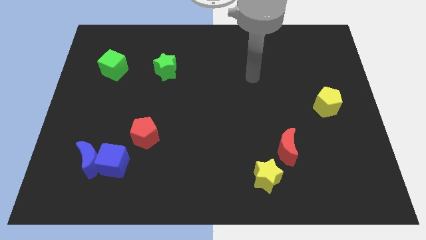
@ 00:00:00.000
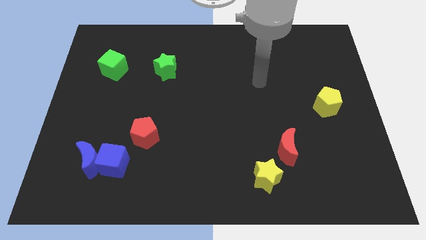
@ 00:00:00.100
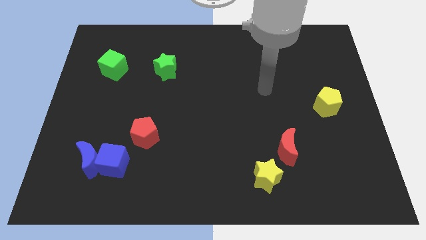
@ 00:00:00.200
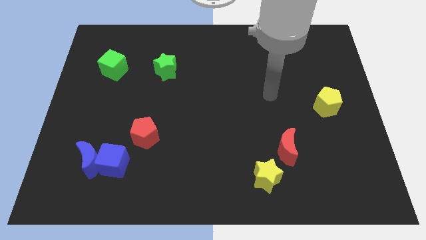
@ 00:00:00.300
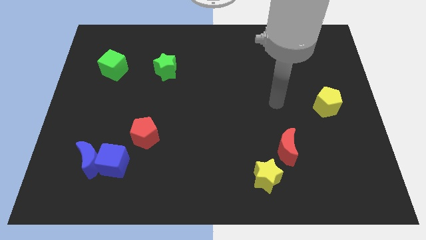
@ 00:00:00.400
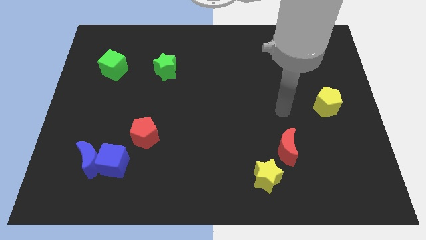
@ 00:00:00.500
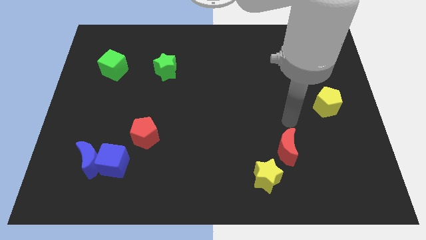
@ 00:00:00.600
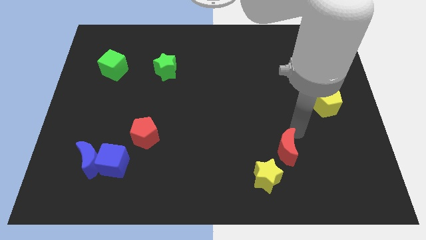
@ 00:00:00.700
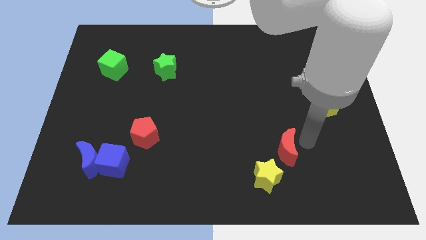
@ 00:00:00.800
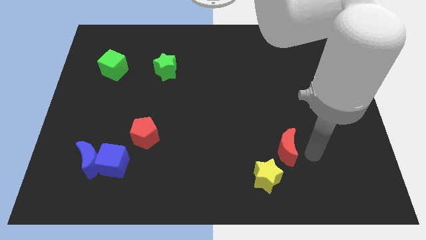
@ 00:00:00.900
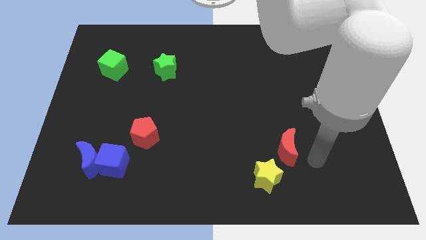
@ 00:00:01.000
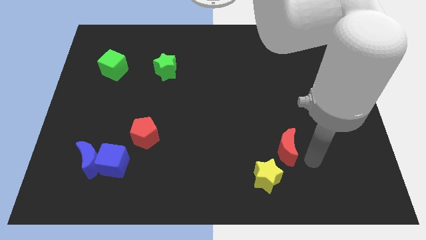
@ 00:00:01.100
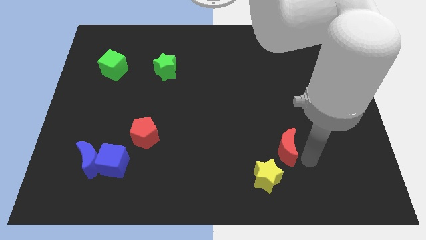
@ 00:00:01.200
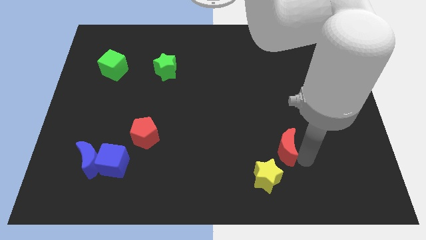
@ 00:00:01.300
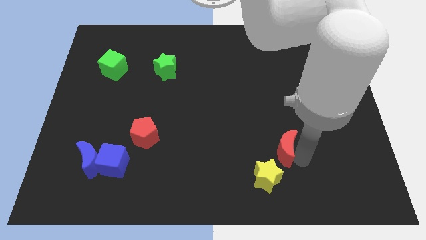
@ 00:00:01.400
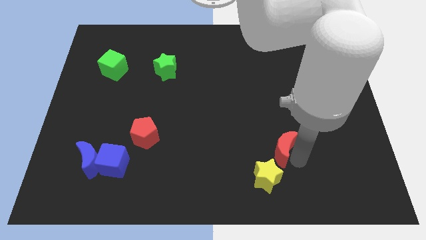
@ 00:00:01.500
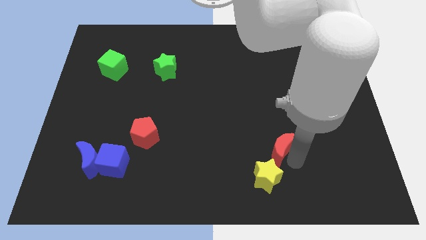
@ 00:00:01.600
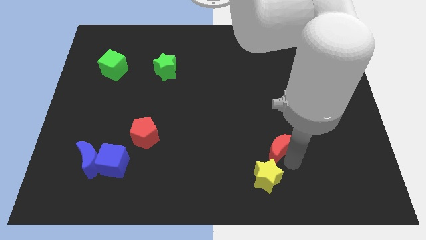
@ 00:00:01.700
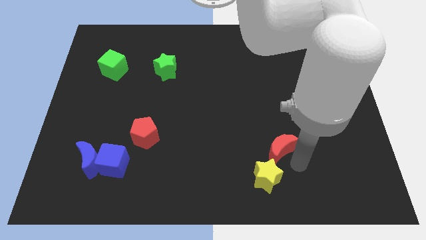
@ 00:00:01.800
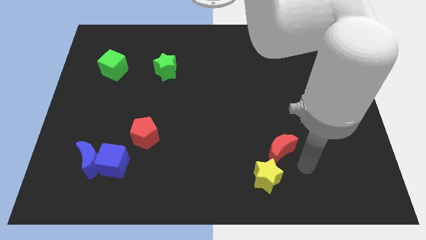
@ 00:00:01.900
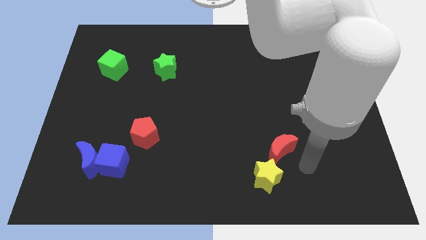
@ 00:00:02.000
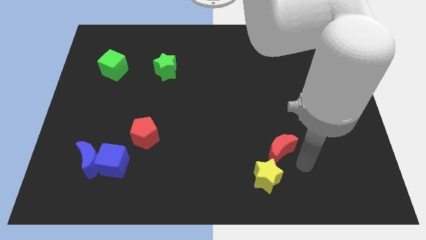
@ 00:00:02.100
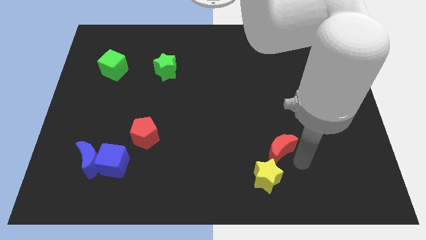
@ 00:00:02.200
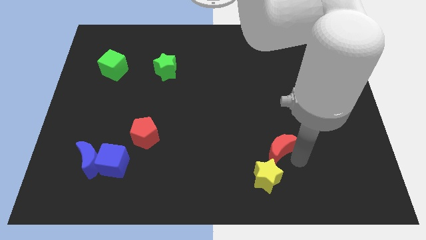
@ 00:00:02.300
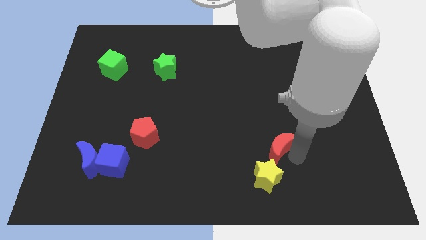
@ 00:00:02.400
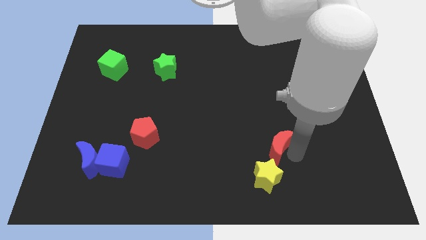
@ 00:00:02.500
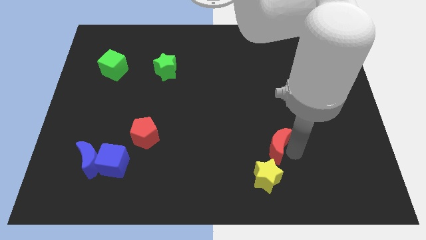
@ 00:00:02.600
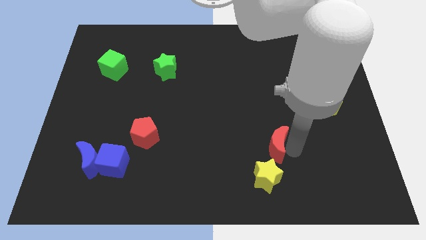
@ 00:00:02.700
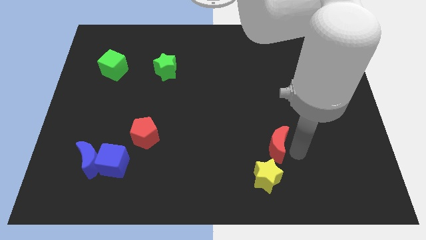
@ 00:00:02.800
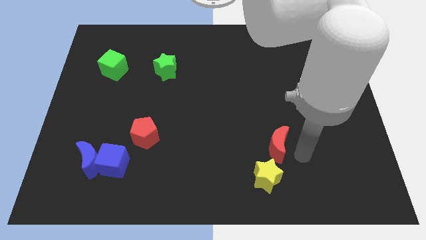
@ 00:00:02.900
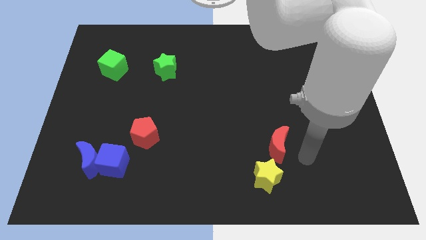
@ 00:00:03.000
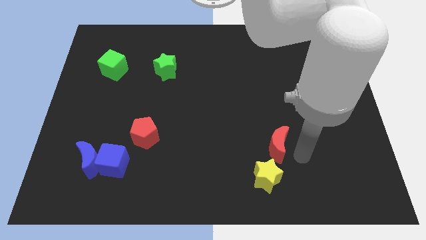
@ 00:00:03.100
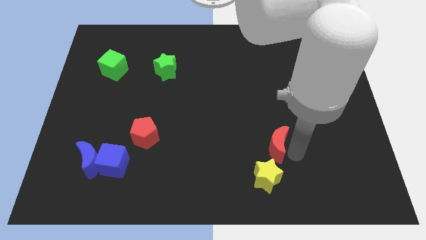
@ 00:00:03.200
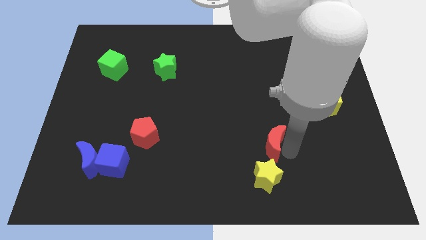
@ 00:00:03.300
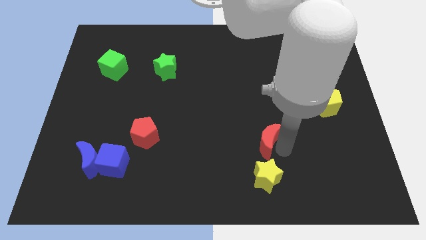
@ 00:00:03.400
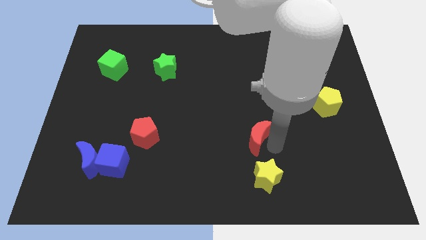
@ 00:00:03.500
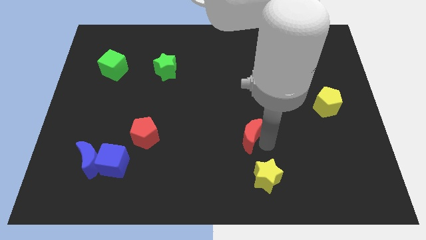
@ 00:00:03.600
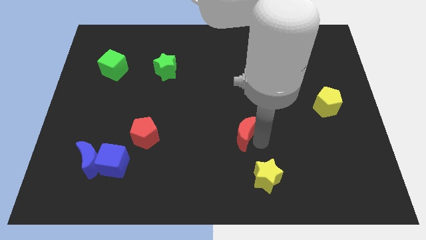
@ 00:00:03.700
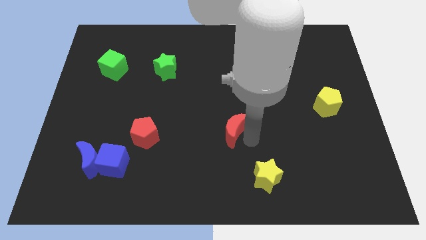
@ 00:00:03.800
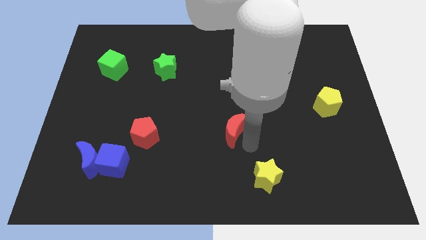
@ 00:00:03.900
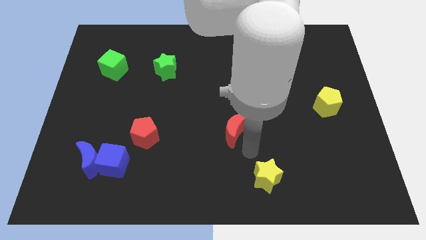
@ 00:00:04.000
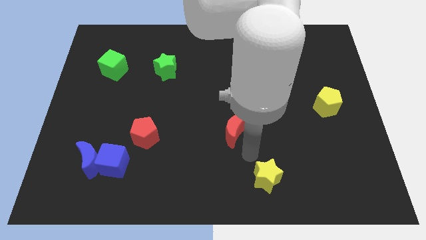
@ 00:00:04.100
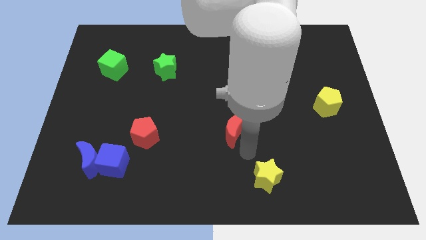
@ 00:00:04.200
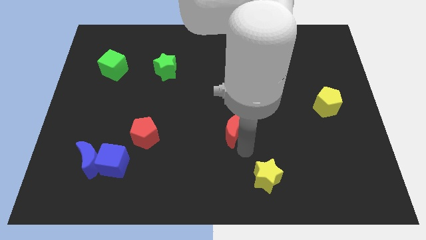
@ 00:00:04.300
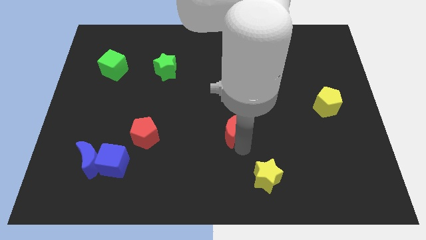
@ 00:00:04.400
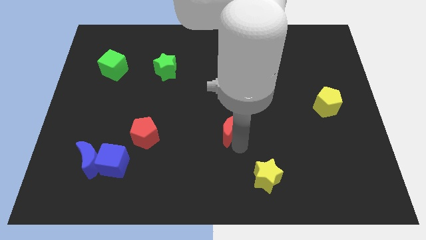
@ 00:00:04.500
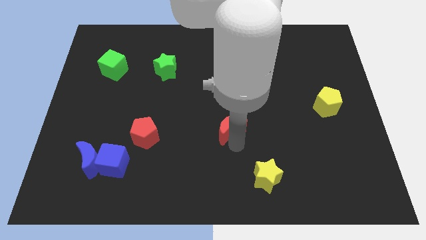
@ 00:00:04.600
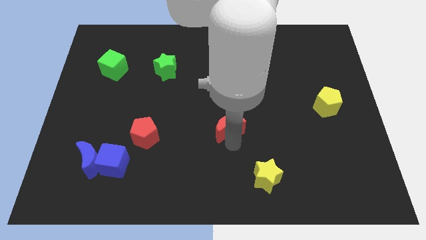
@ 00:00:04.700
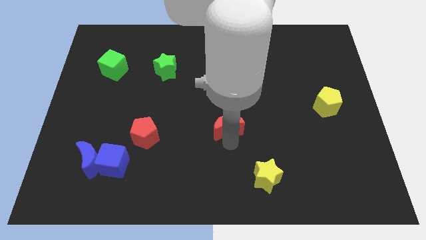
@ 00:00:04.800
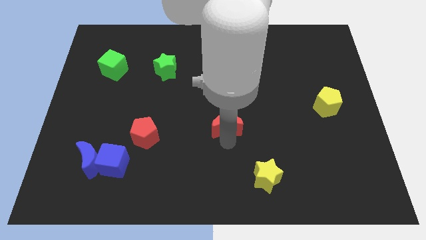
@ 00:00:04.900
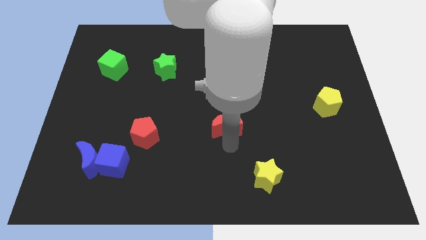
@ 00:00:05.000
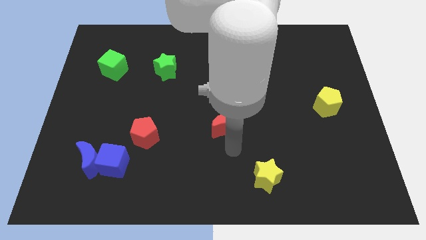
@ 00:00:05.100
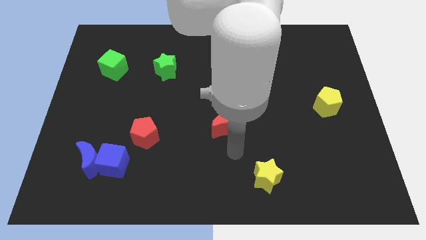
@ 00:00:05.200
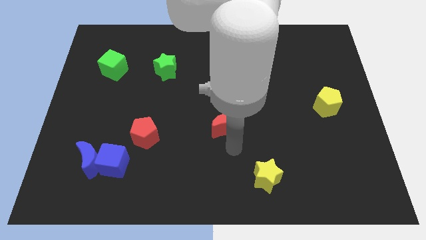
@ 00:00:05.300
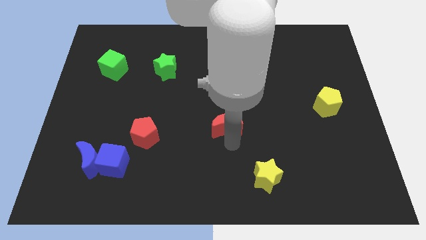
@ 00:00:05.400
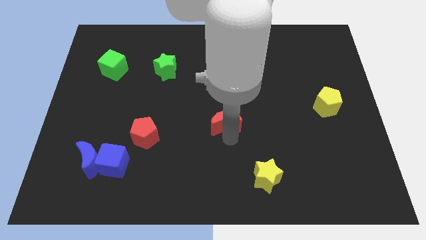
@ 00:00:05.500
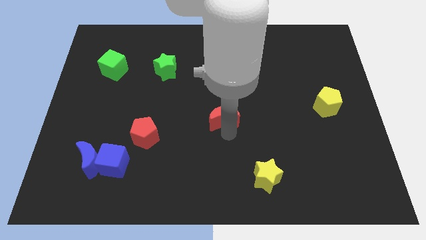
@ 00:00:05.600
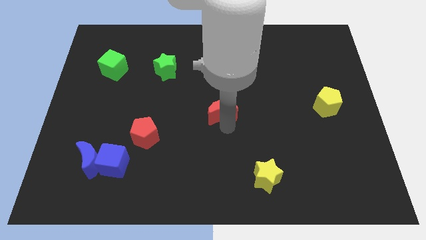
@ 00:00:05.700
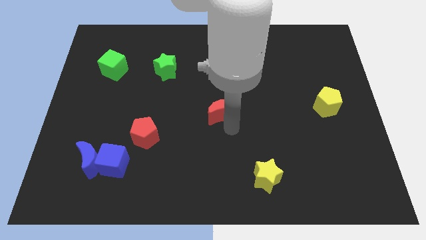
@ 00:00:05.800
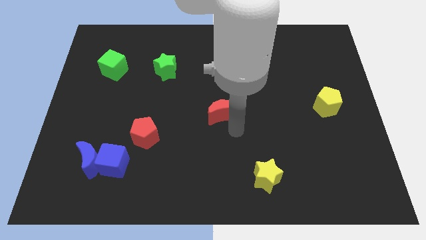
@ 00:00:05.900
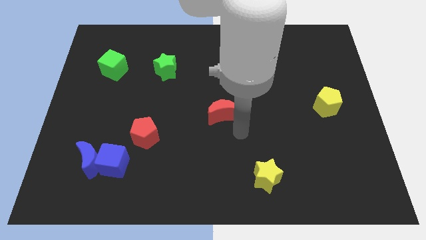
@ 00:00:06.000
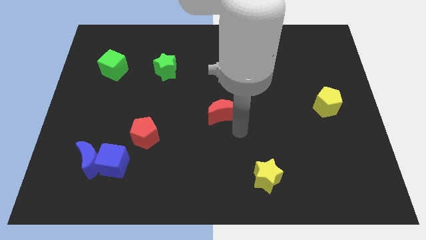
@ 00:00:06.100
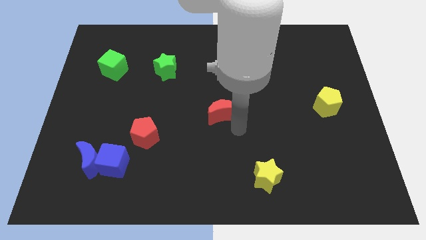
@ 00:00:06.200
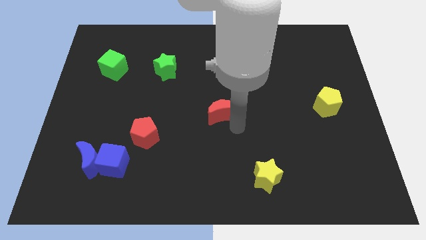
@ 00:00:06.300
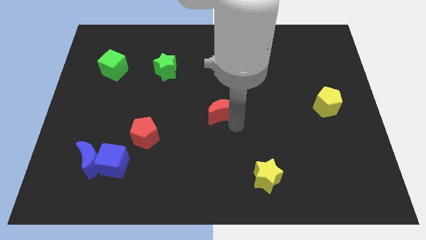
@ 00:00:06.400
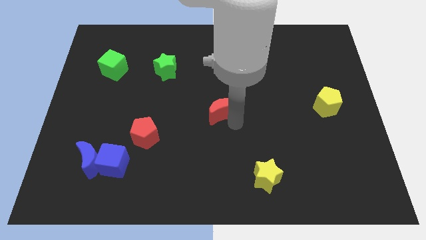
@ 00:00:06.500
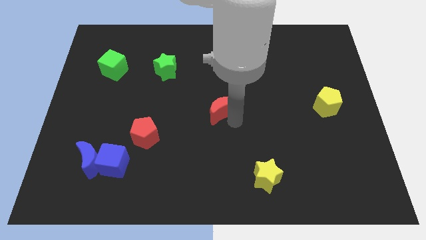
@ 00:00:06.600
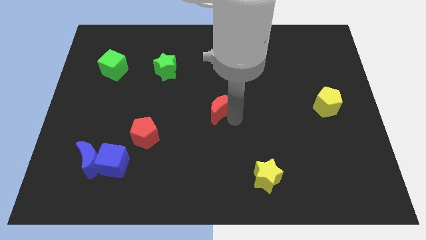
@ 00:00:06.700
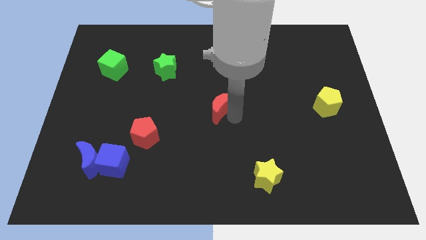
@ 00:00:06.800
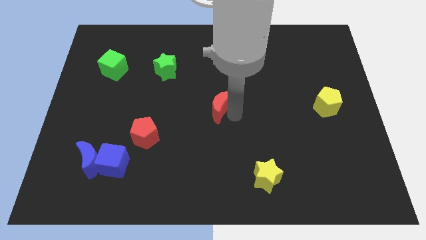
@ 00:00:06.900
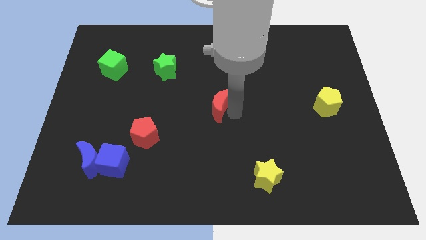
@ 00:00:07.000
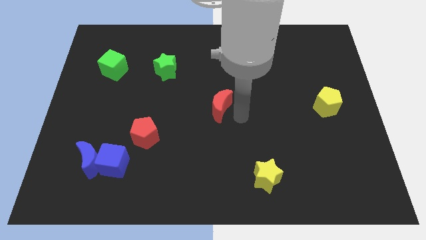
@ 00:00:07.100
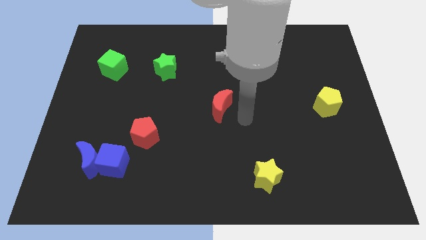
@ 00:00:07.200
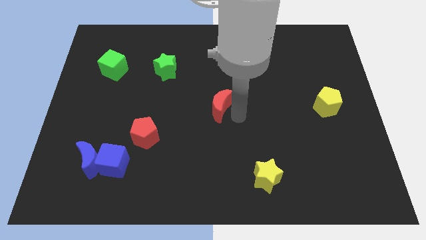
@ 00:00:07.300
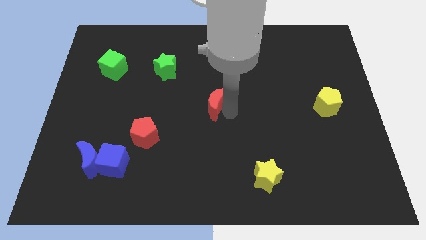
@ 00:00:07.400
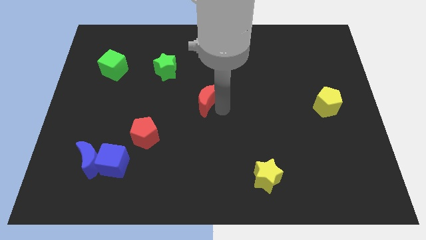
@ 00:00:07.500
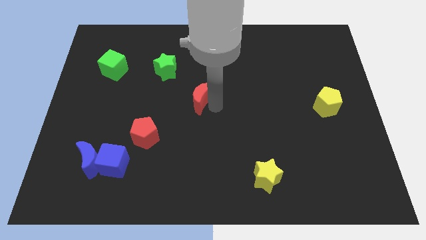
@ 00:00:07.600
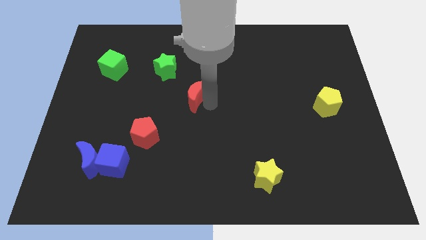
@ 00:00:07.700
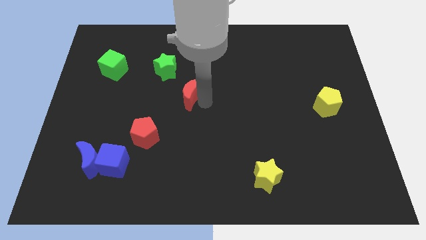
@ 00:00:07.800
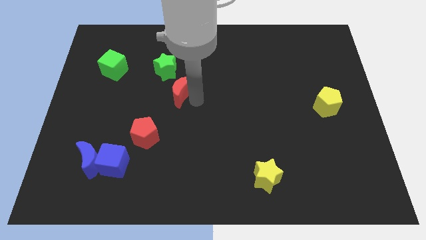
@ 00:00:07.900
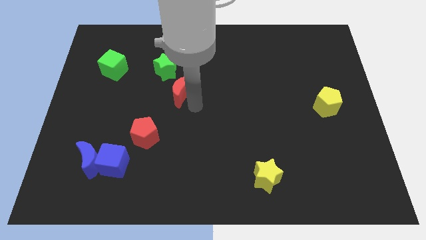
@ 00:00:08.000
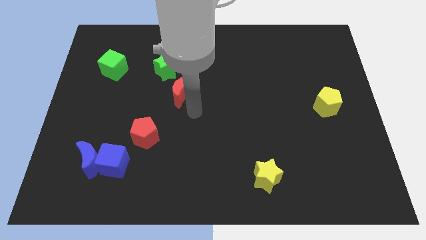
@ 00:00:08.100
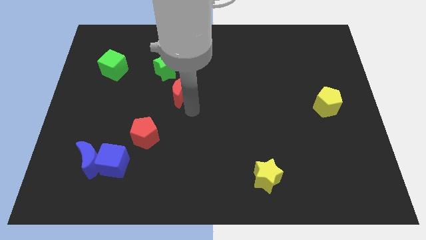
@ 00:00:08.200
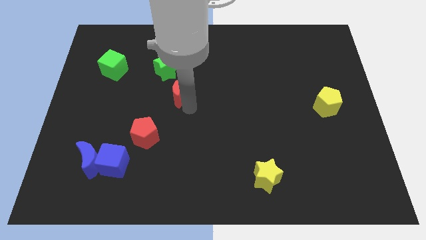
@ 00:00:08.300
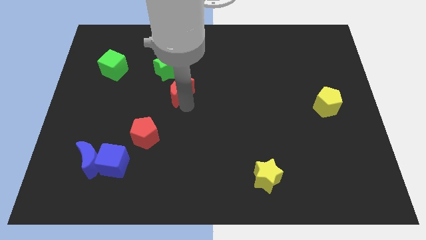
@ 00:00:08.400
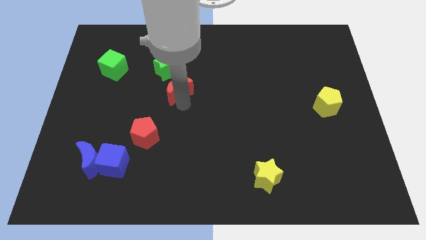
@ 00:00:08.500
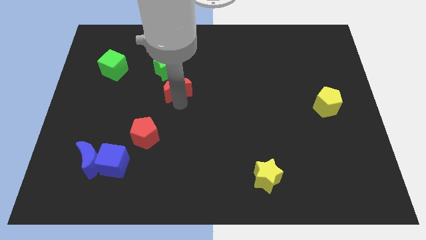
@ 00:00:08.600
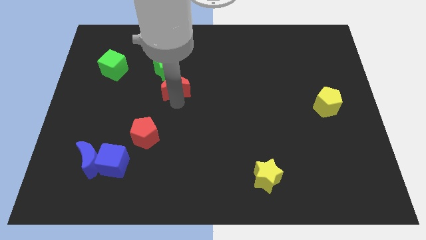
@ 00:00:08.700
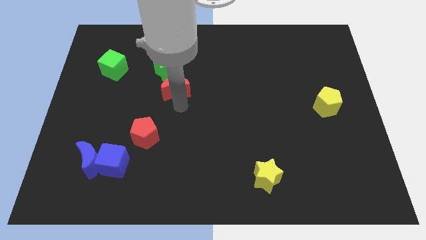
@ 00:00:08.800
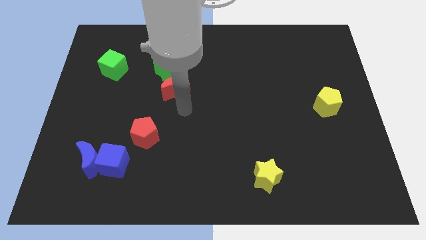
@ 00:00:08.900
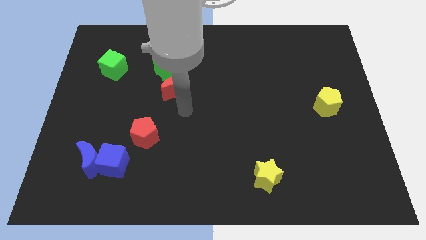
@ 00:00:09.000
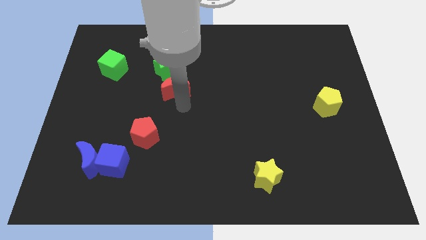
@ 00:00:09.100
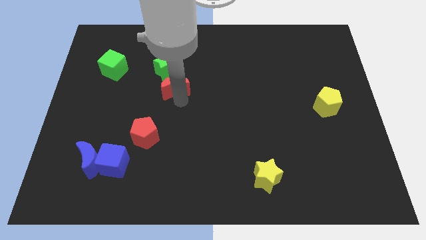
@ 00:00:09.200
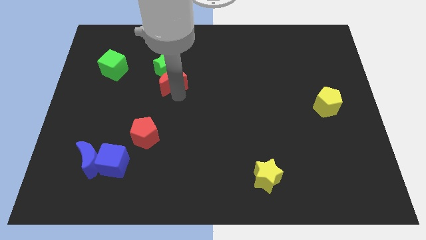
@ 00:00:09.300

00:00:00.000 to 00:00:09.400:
move the red moon to the green star
